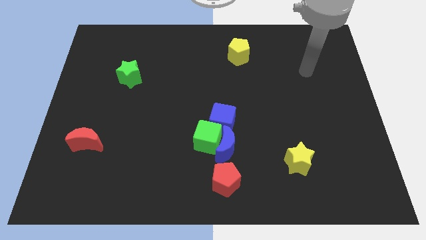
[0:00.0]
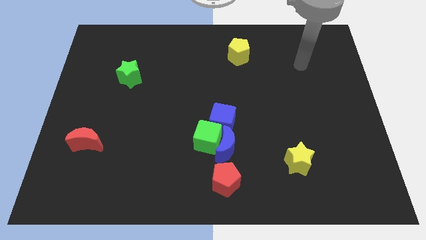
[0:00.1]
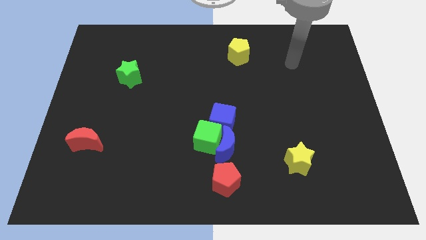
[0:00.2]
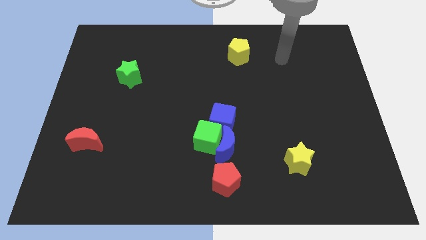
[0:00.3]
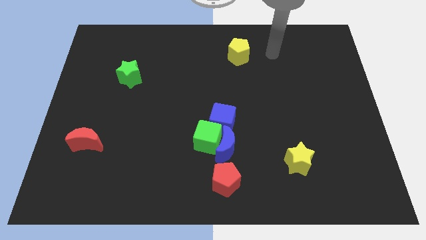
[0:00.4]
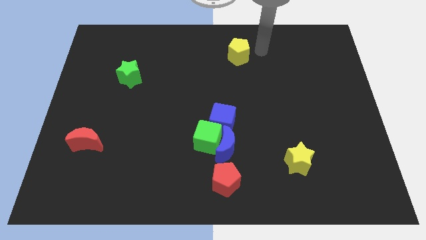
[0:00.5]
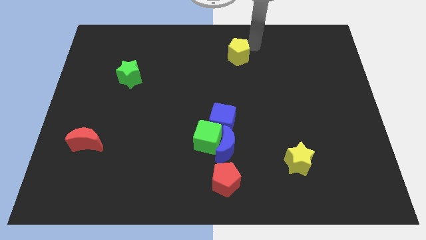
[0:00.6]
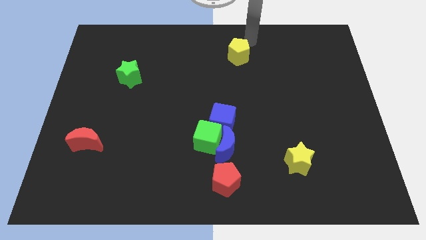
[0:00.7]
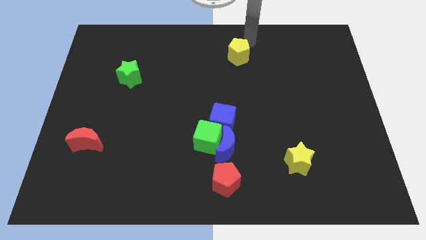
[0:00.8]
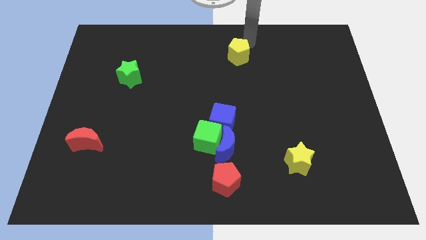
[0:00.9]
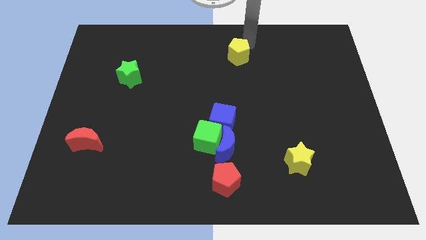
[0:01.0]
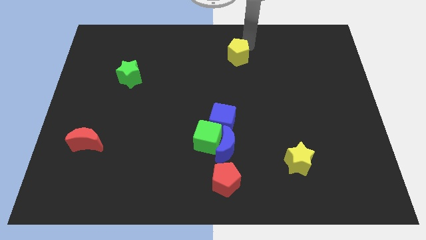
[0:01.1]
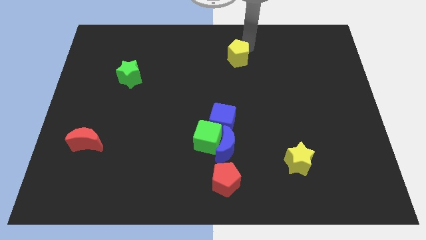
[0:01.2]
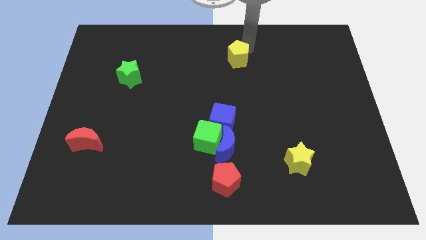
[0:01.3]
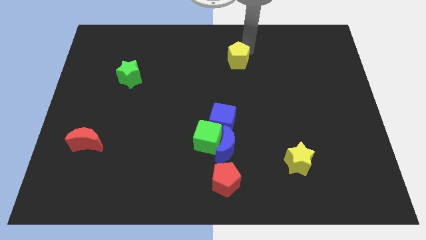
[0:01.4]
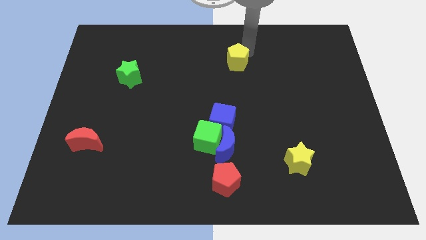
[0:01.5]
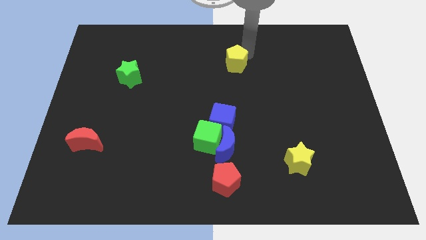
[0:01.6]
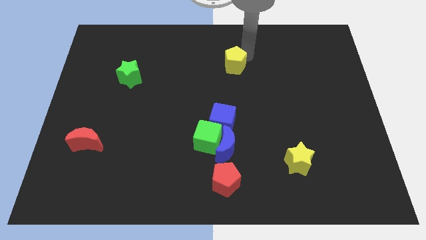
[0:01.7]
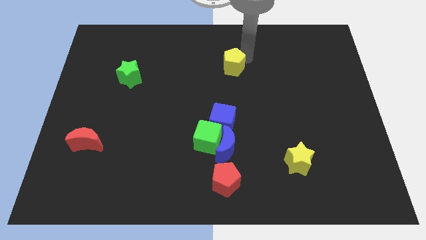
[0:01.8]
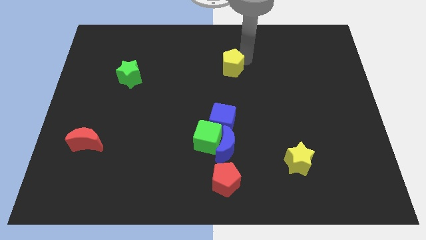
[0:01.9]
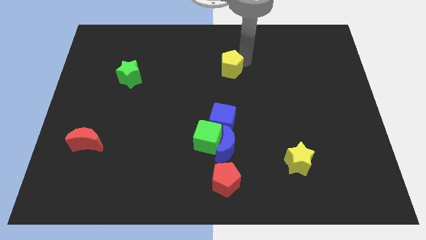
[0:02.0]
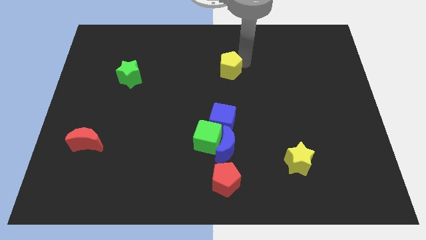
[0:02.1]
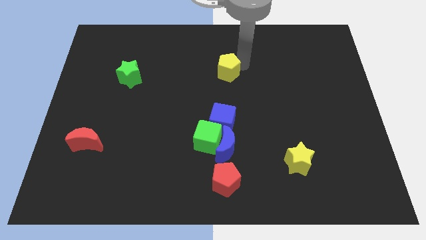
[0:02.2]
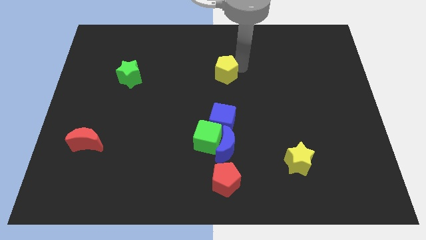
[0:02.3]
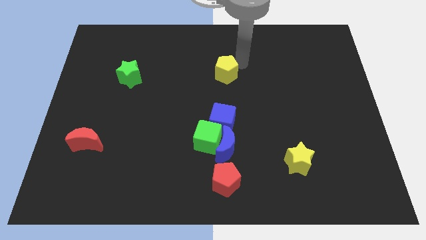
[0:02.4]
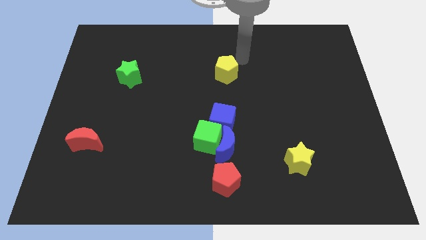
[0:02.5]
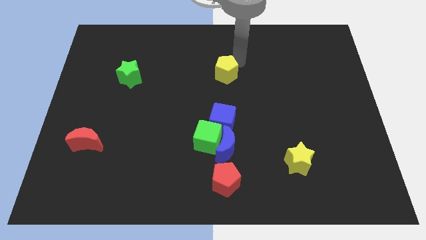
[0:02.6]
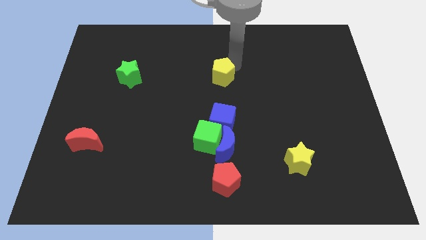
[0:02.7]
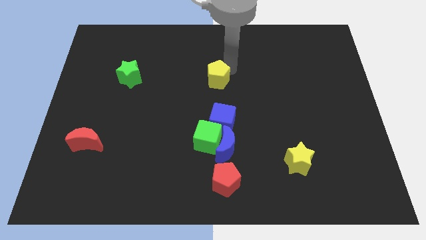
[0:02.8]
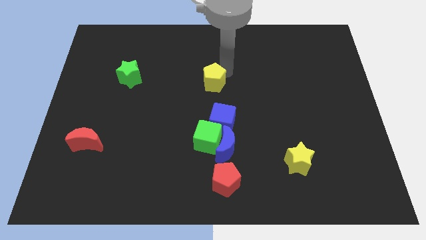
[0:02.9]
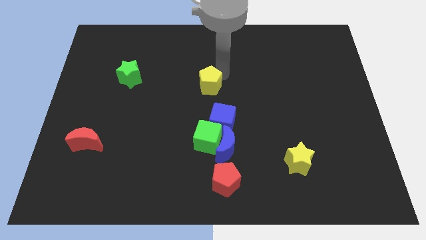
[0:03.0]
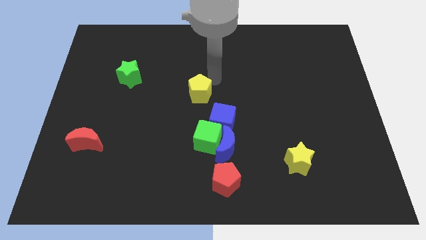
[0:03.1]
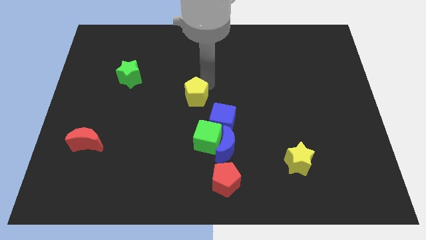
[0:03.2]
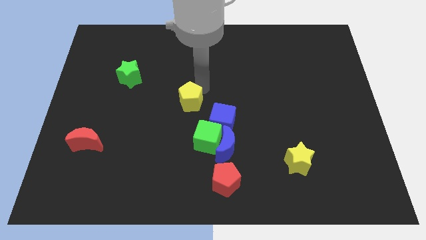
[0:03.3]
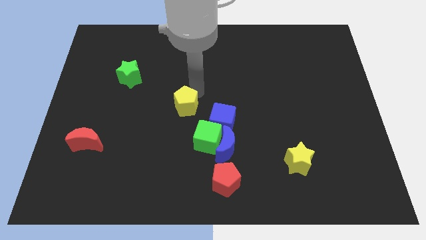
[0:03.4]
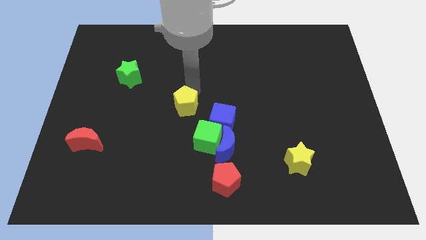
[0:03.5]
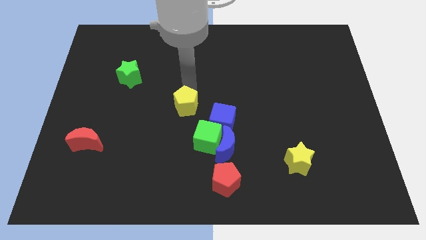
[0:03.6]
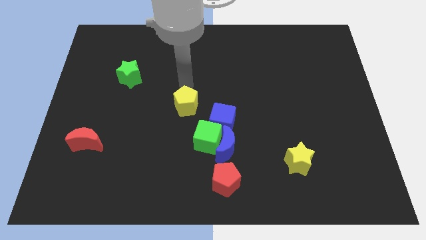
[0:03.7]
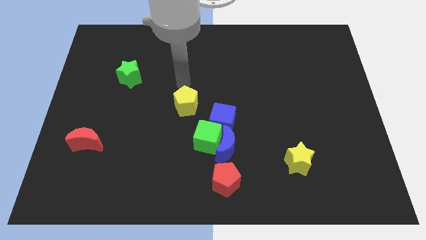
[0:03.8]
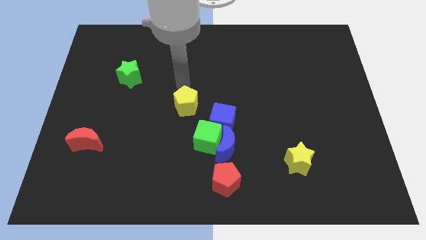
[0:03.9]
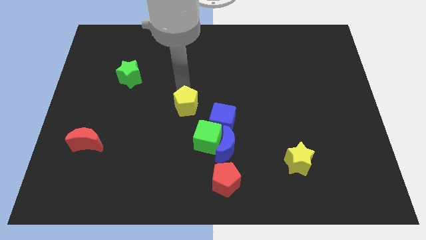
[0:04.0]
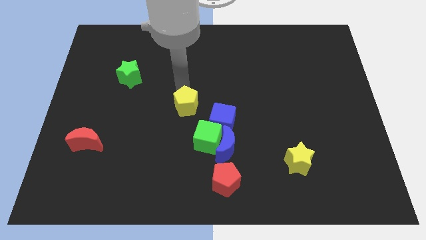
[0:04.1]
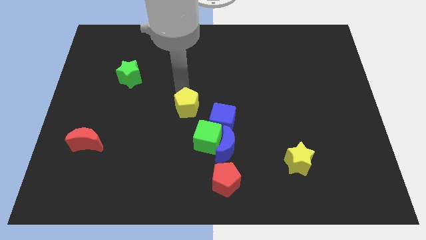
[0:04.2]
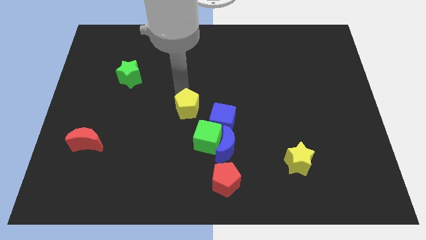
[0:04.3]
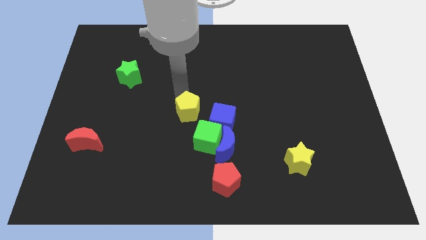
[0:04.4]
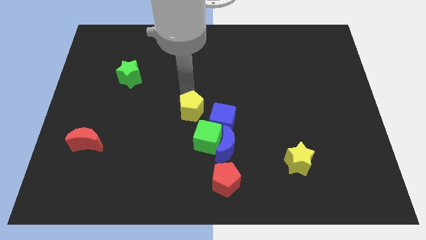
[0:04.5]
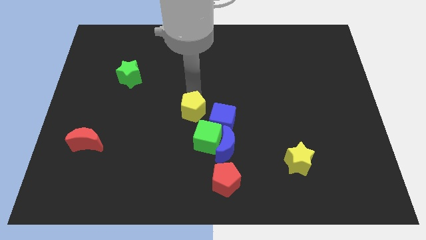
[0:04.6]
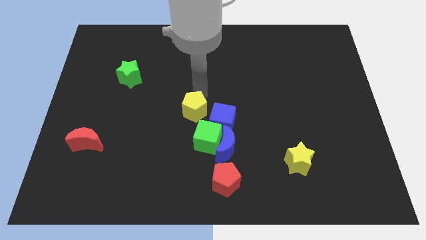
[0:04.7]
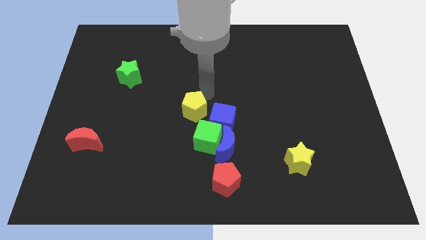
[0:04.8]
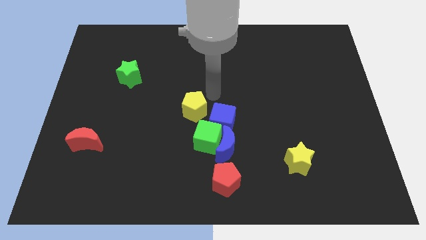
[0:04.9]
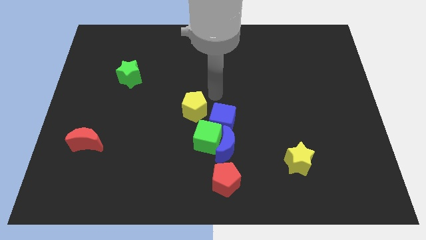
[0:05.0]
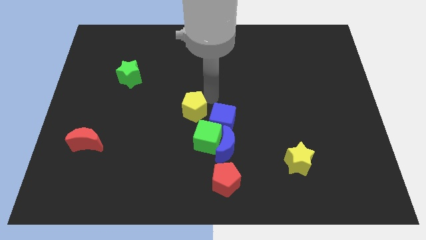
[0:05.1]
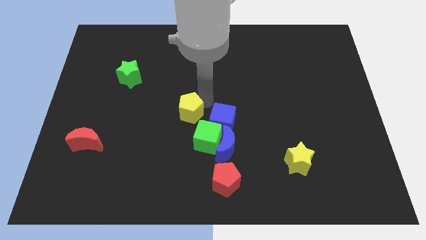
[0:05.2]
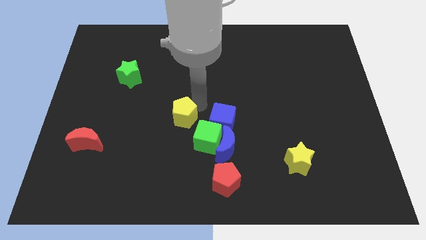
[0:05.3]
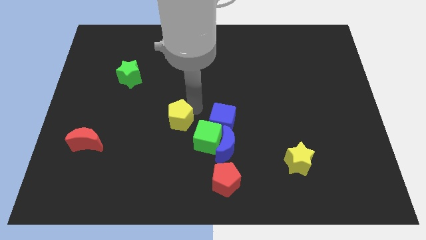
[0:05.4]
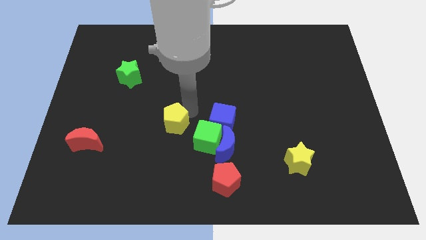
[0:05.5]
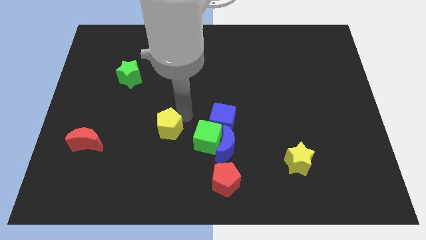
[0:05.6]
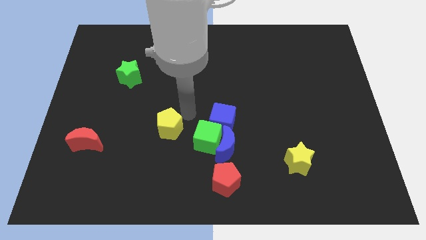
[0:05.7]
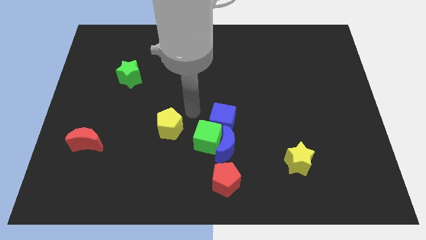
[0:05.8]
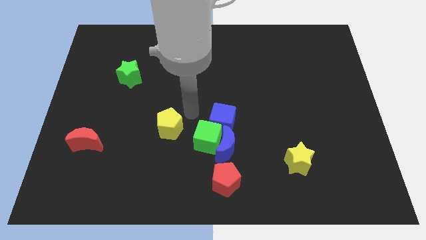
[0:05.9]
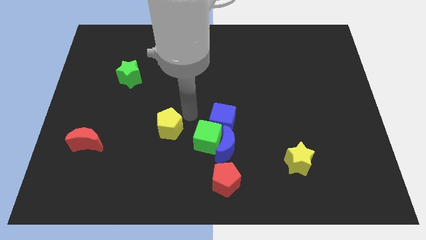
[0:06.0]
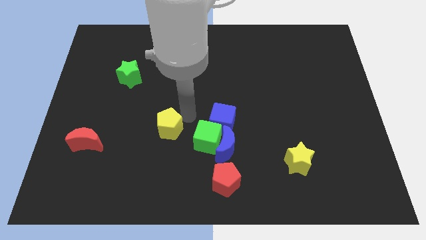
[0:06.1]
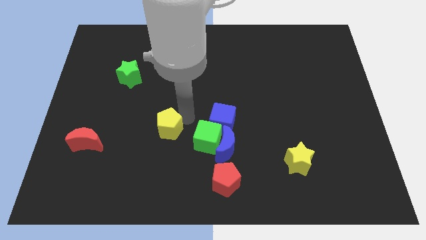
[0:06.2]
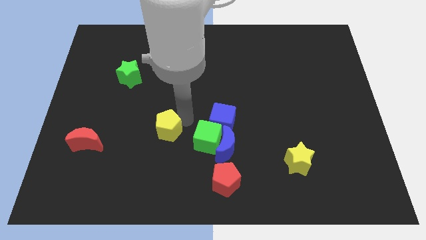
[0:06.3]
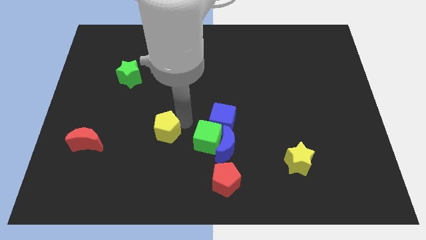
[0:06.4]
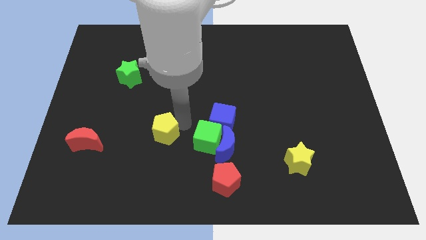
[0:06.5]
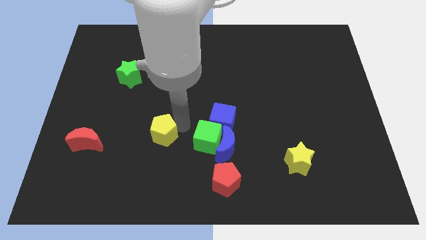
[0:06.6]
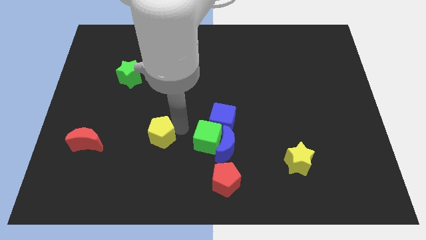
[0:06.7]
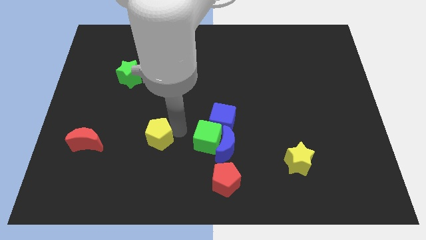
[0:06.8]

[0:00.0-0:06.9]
put the yellow pentagon to the right of the red moon

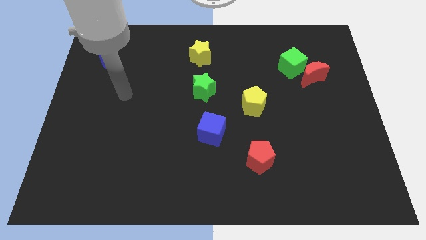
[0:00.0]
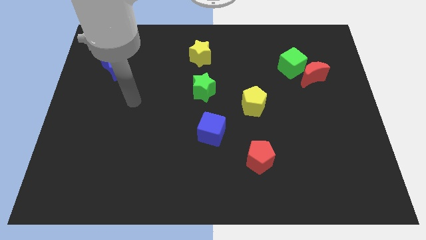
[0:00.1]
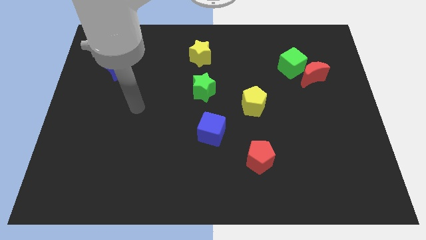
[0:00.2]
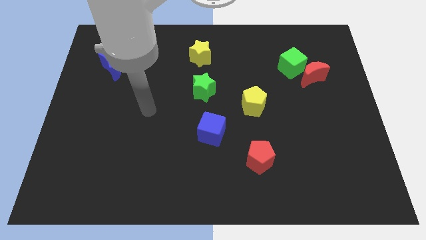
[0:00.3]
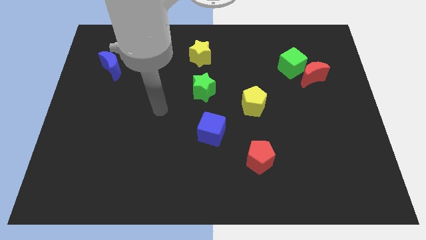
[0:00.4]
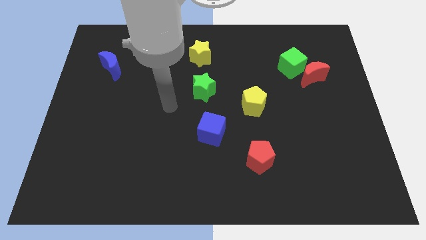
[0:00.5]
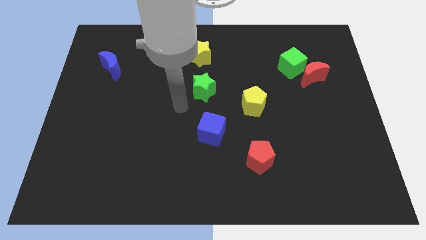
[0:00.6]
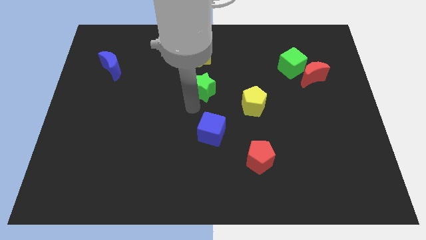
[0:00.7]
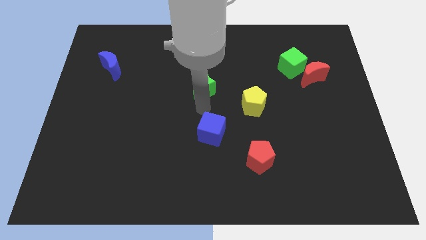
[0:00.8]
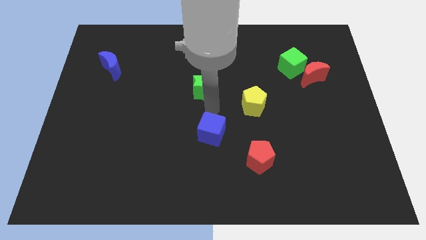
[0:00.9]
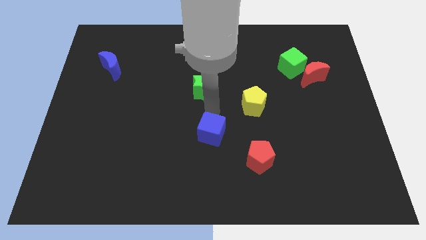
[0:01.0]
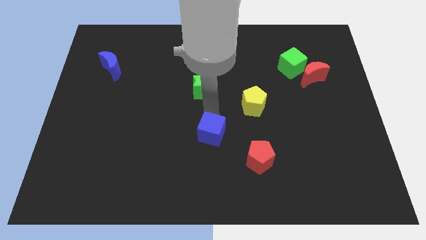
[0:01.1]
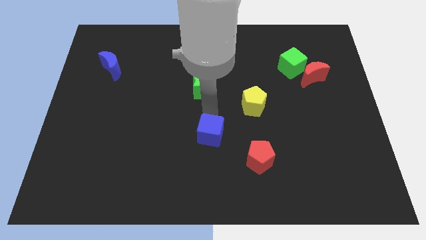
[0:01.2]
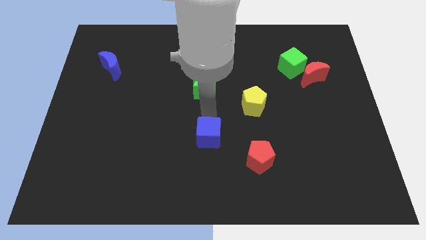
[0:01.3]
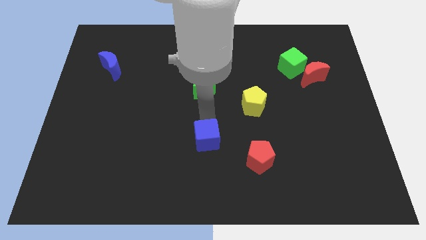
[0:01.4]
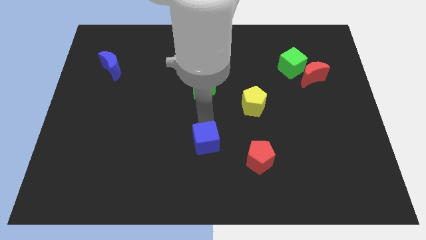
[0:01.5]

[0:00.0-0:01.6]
slide the blue cube just left of the red pentagon
